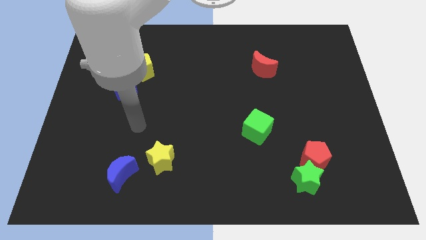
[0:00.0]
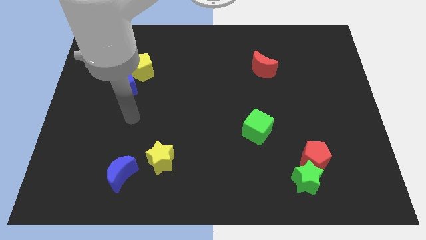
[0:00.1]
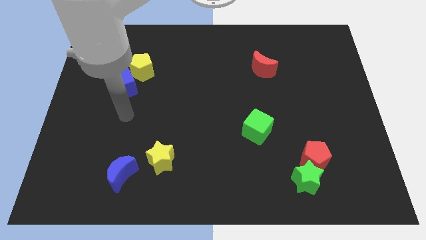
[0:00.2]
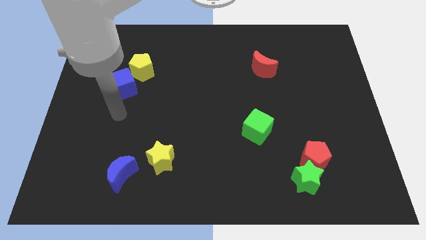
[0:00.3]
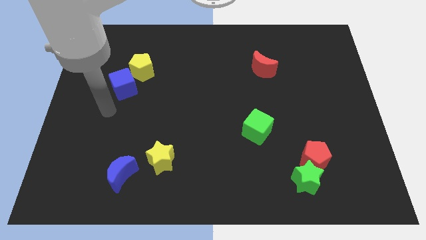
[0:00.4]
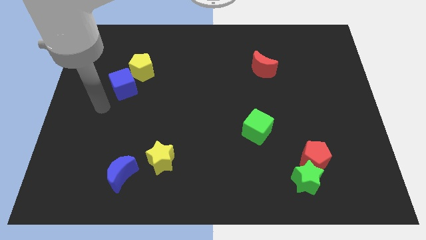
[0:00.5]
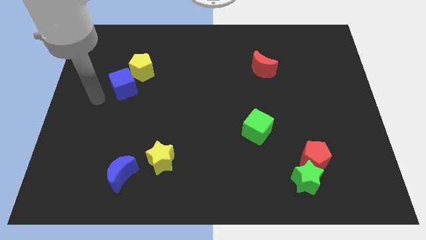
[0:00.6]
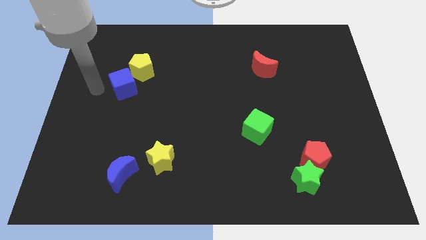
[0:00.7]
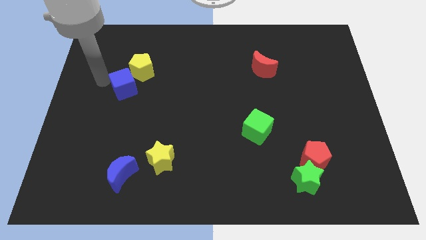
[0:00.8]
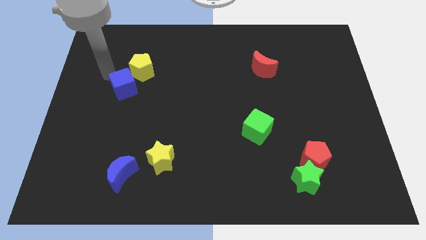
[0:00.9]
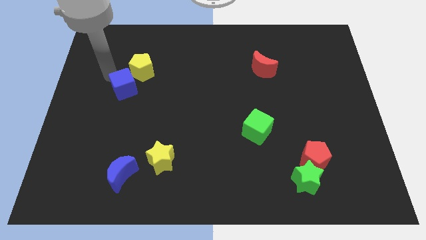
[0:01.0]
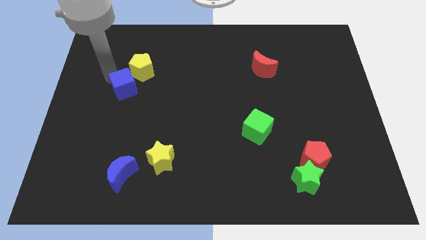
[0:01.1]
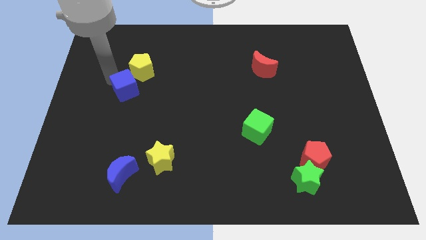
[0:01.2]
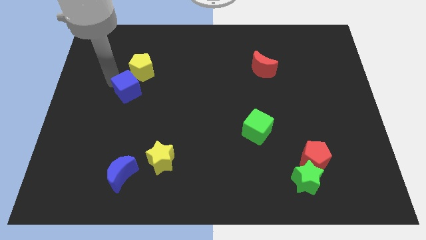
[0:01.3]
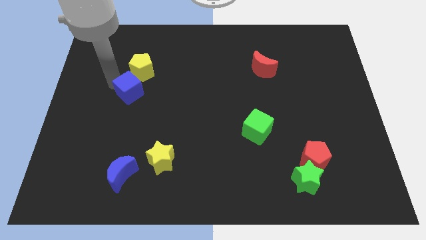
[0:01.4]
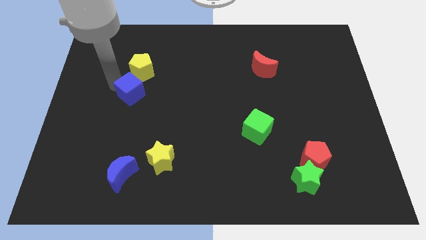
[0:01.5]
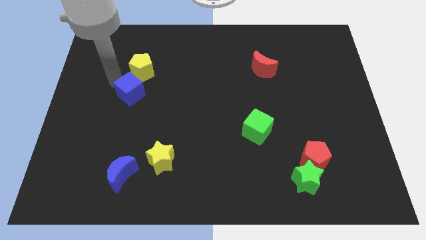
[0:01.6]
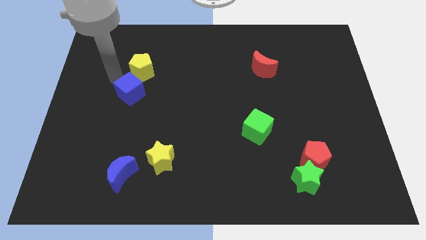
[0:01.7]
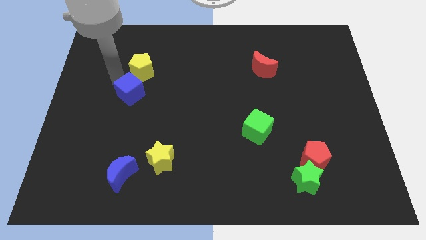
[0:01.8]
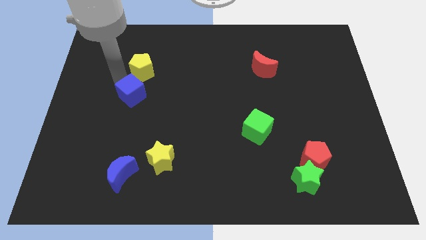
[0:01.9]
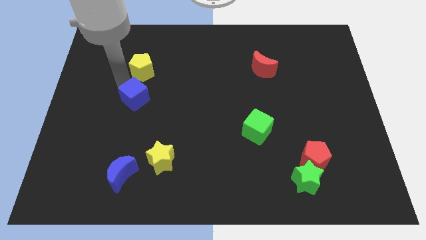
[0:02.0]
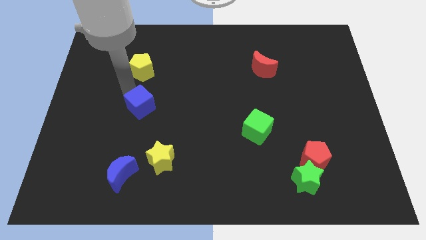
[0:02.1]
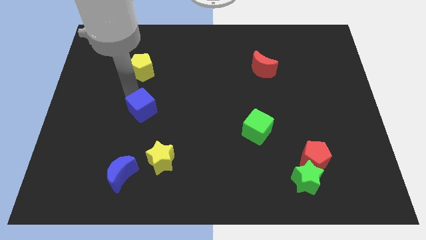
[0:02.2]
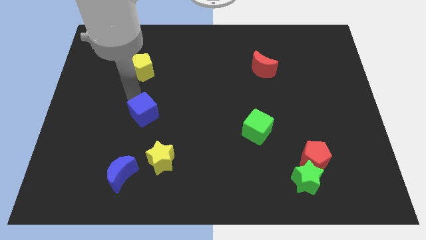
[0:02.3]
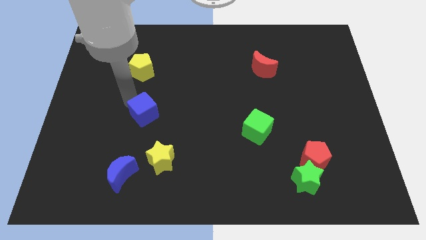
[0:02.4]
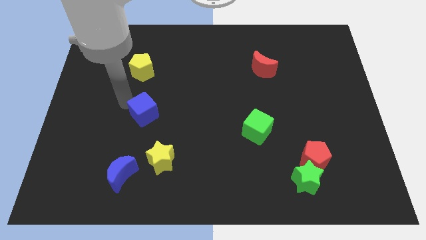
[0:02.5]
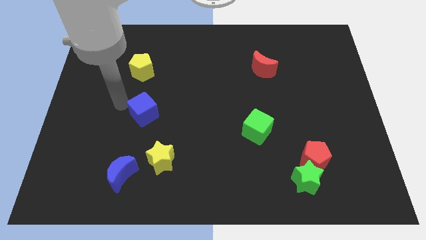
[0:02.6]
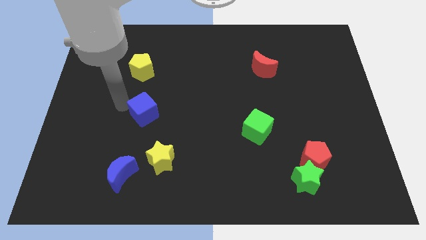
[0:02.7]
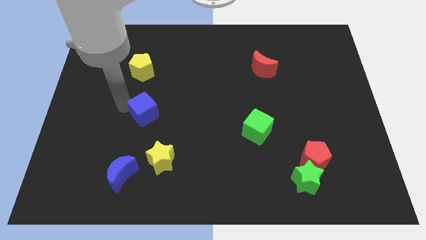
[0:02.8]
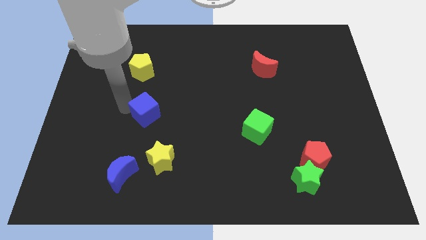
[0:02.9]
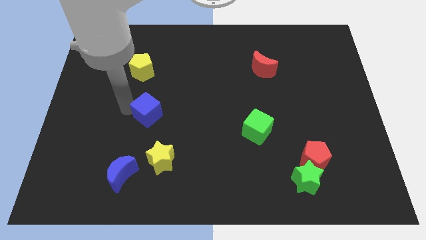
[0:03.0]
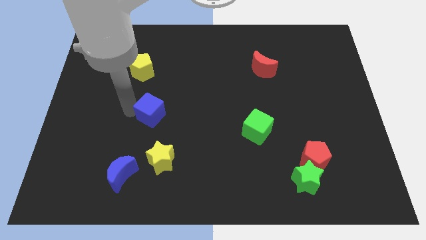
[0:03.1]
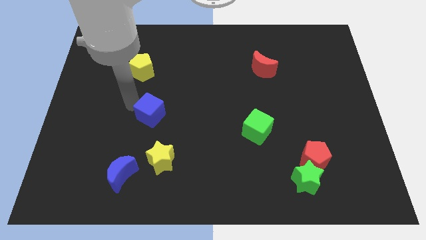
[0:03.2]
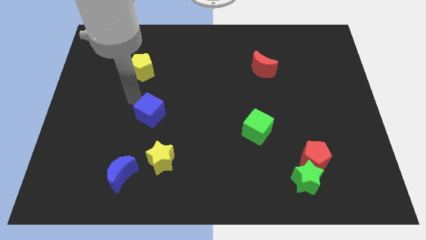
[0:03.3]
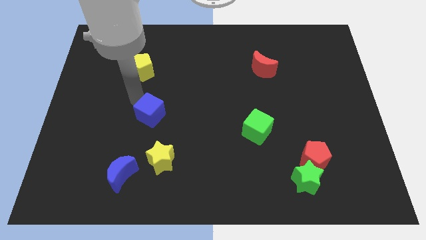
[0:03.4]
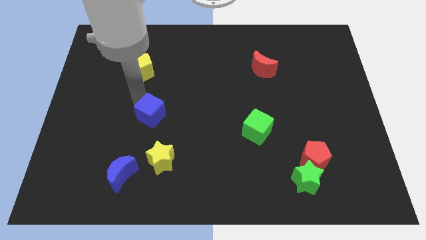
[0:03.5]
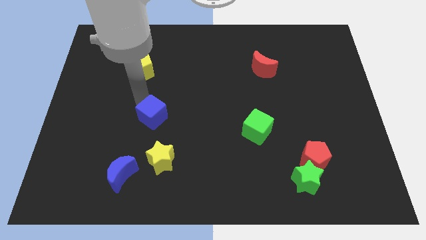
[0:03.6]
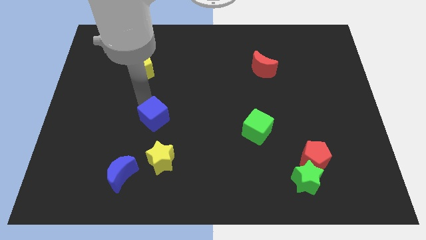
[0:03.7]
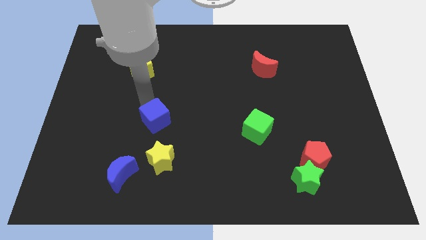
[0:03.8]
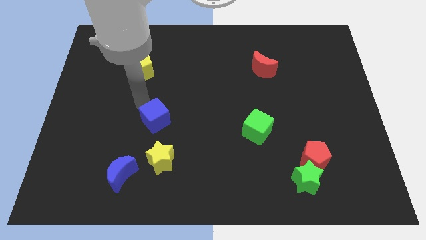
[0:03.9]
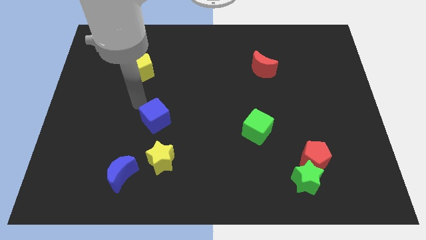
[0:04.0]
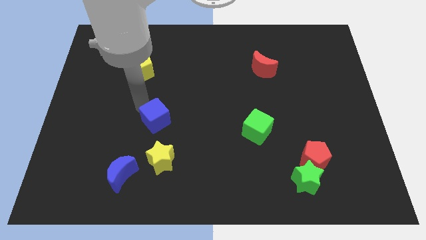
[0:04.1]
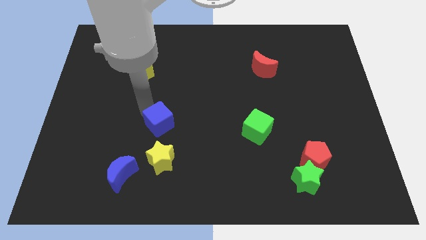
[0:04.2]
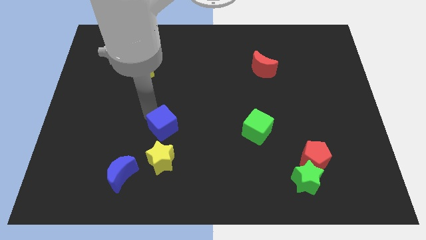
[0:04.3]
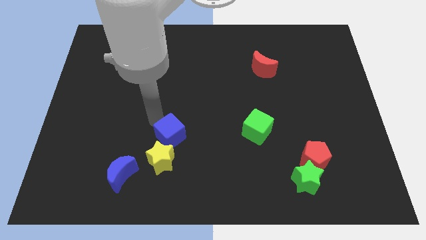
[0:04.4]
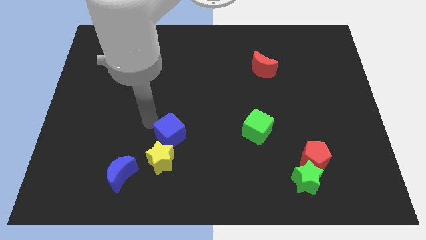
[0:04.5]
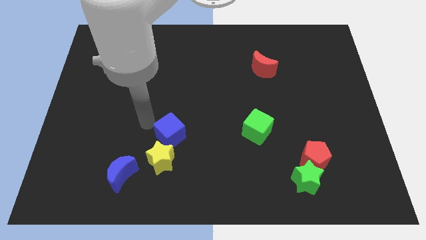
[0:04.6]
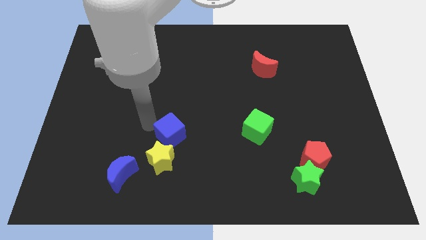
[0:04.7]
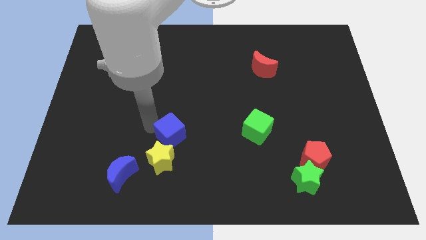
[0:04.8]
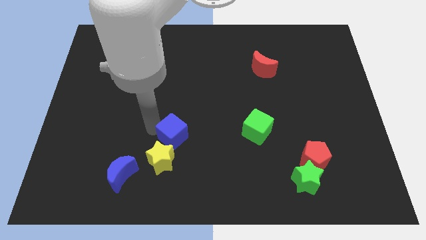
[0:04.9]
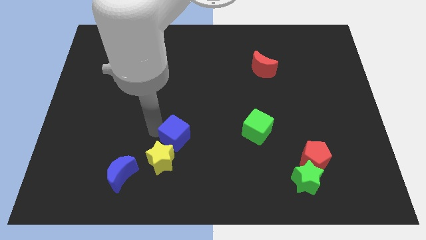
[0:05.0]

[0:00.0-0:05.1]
move the blue cube down and right diagonally

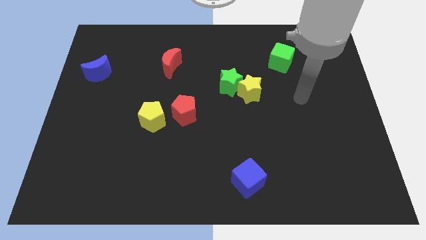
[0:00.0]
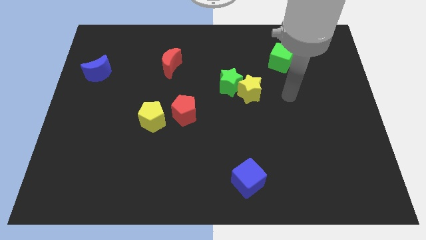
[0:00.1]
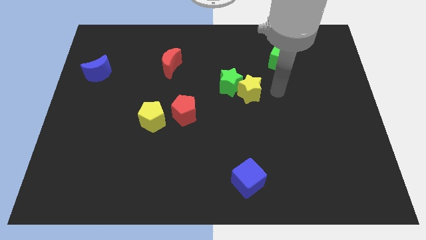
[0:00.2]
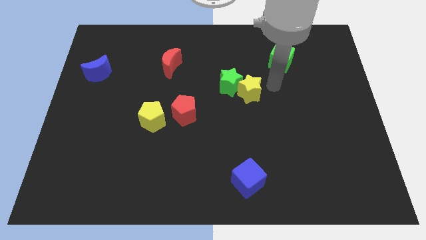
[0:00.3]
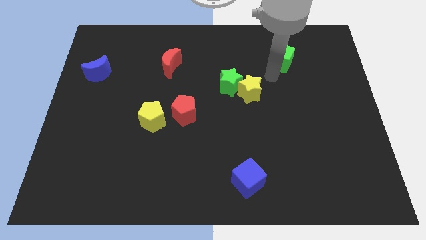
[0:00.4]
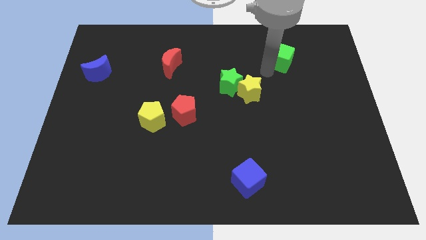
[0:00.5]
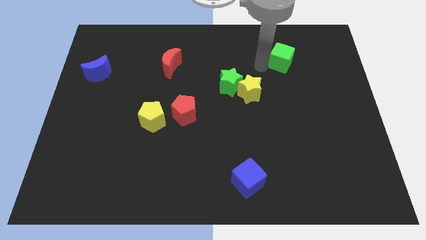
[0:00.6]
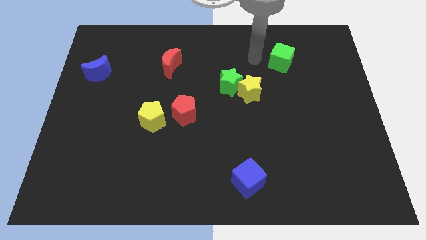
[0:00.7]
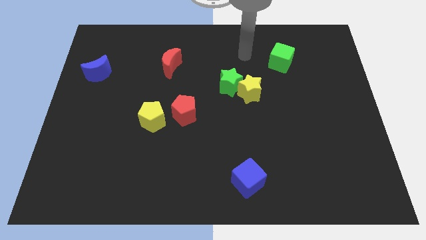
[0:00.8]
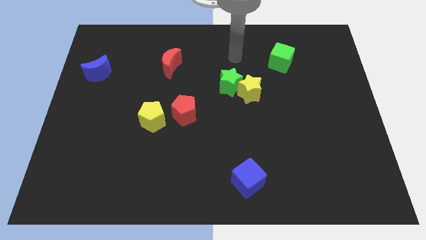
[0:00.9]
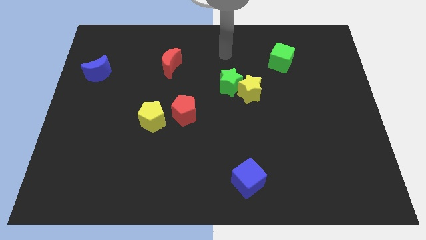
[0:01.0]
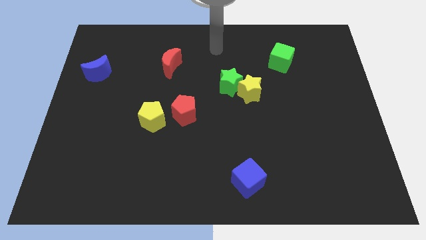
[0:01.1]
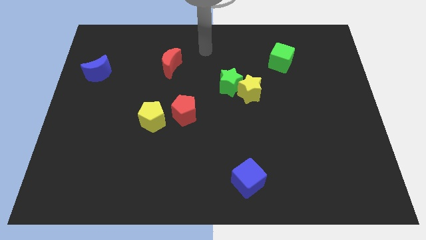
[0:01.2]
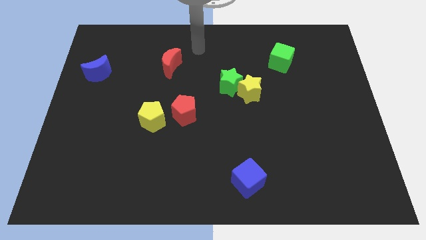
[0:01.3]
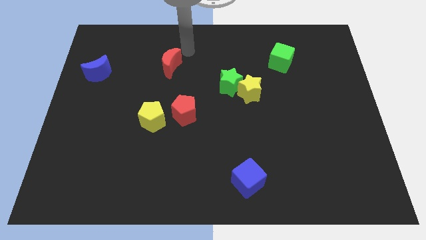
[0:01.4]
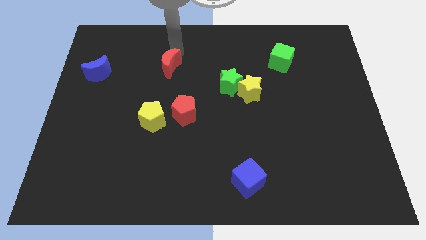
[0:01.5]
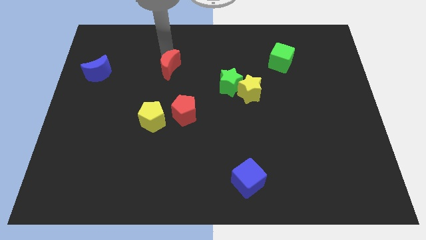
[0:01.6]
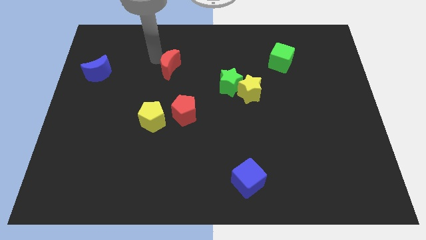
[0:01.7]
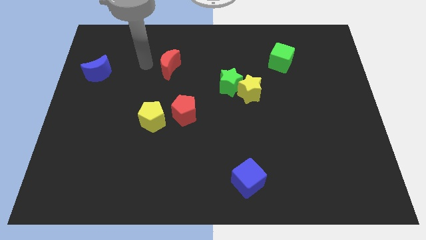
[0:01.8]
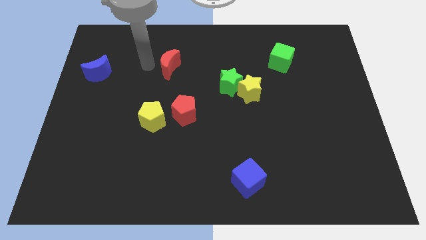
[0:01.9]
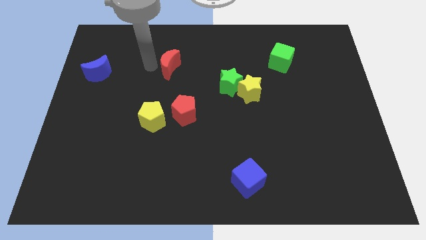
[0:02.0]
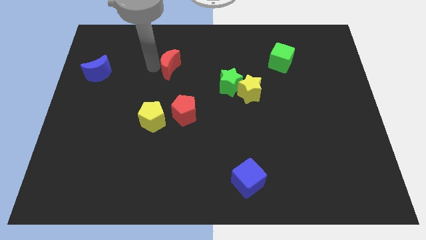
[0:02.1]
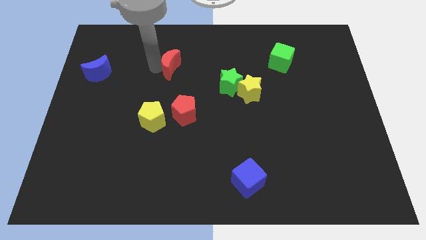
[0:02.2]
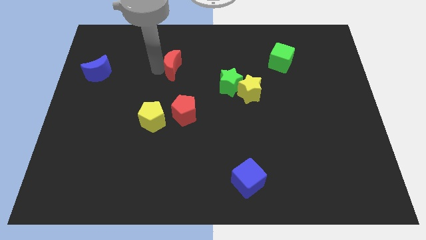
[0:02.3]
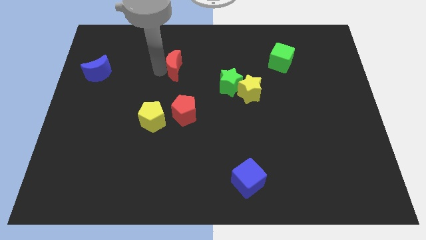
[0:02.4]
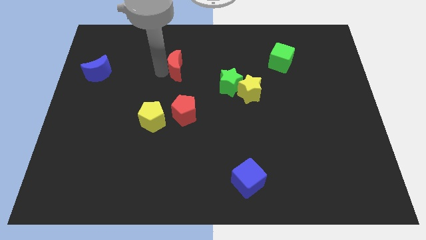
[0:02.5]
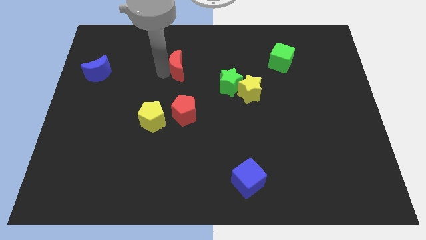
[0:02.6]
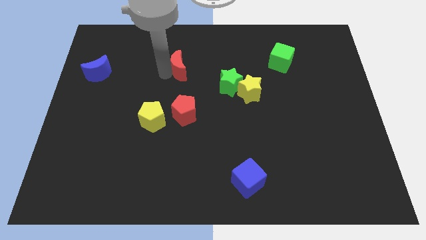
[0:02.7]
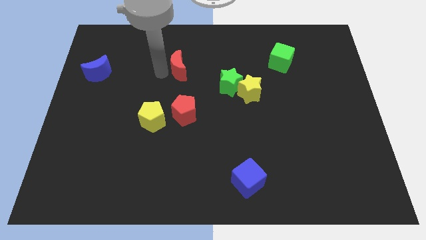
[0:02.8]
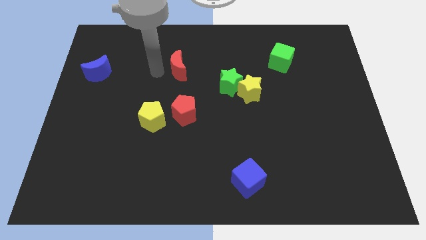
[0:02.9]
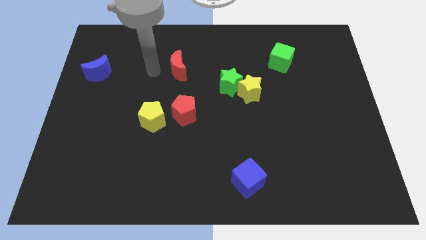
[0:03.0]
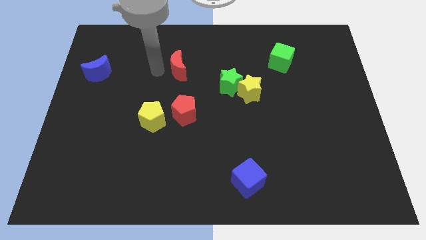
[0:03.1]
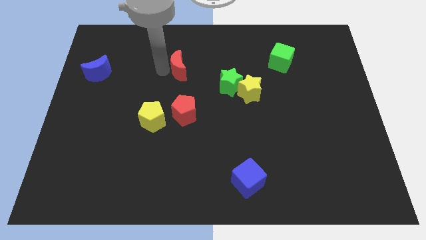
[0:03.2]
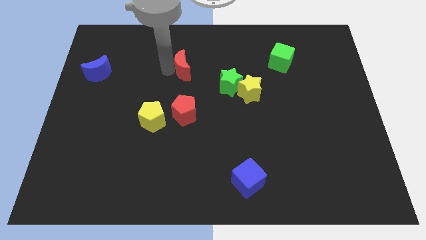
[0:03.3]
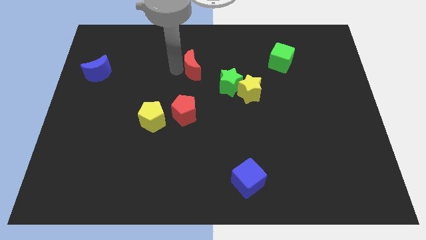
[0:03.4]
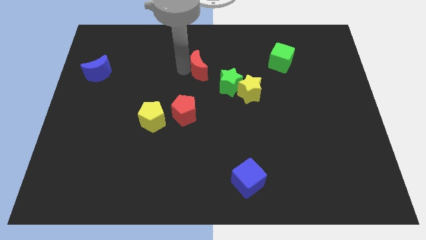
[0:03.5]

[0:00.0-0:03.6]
push the red moon to the right a bit
